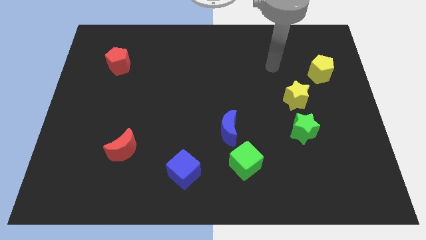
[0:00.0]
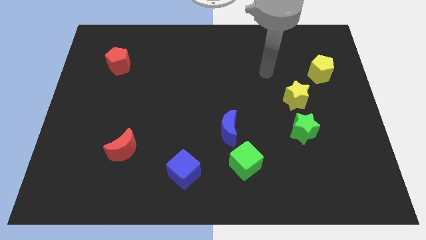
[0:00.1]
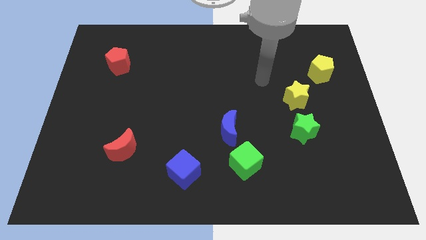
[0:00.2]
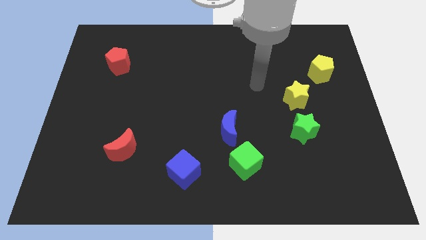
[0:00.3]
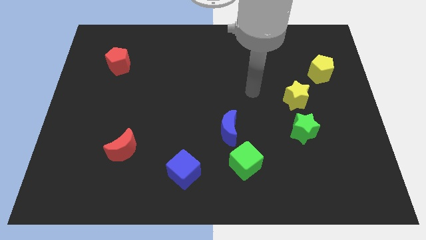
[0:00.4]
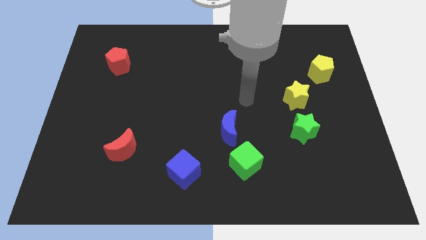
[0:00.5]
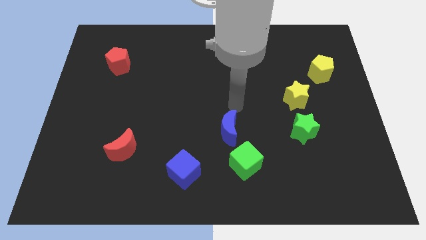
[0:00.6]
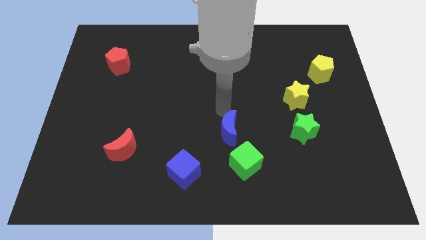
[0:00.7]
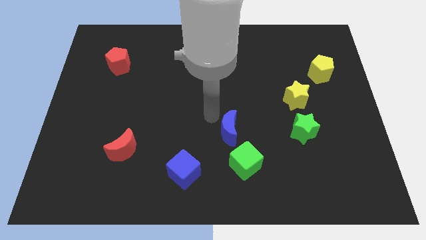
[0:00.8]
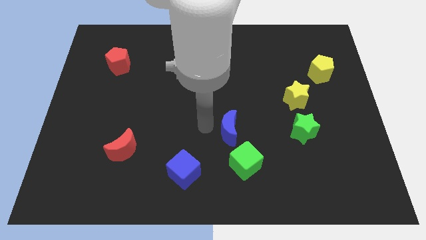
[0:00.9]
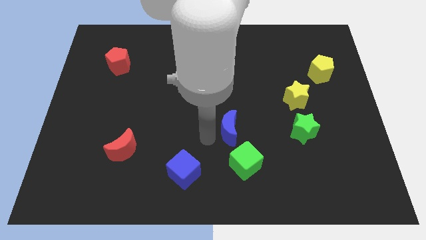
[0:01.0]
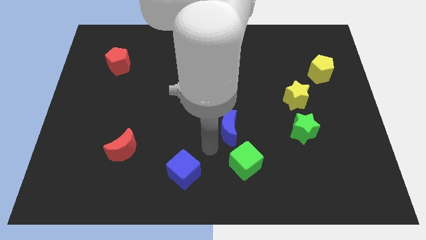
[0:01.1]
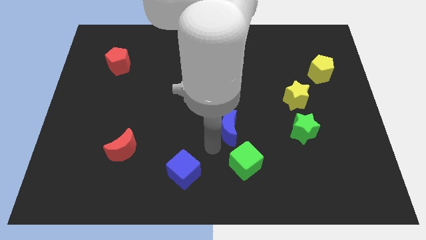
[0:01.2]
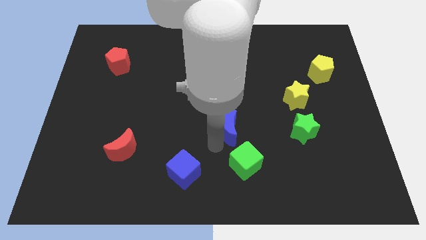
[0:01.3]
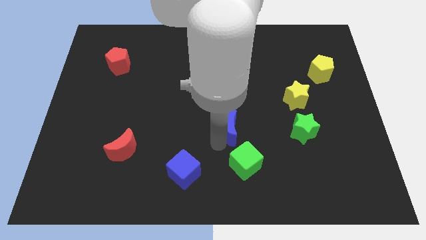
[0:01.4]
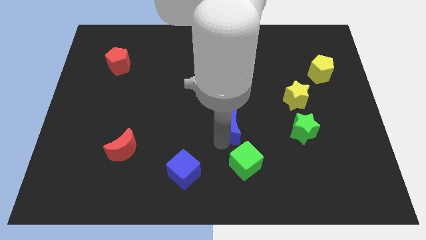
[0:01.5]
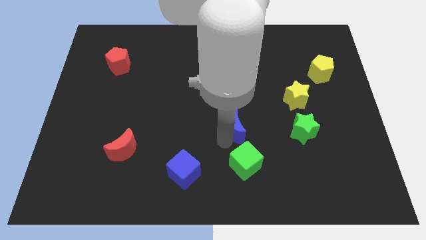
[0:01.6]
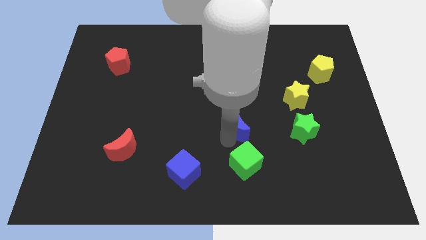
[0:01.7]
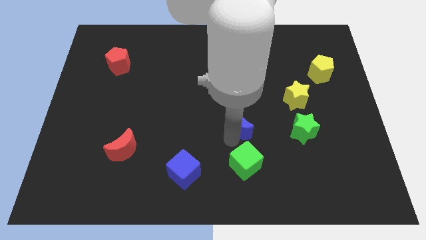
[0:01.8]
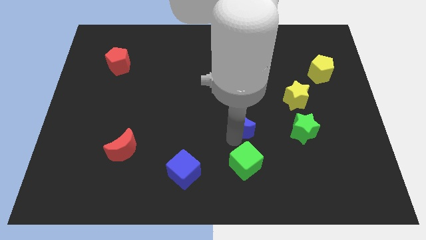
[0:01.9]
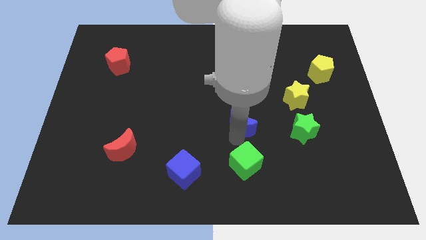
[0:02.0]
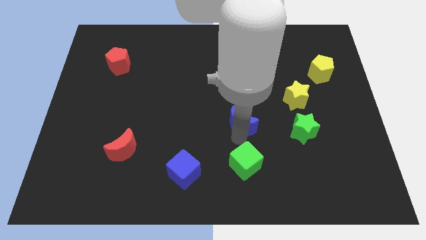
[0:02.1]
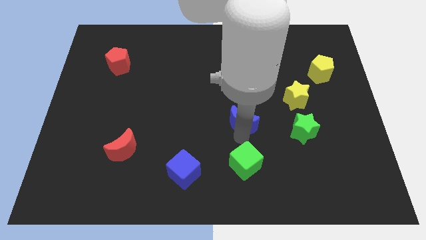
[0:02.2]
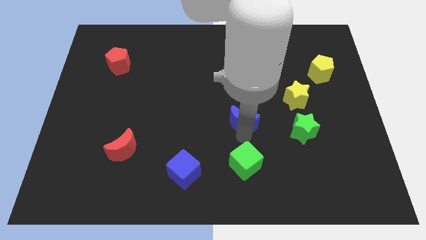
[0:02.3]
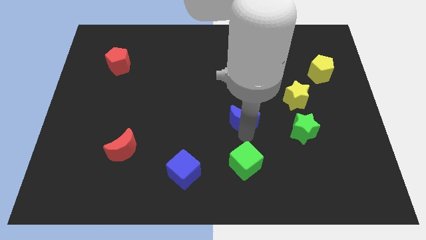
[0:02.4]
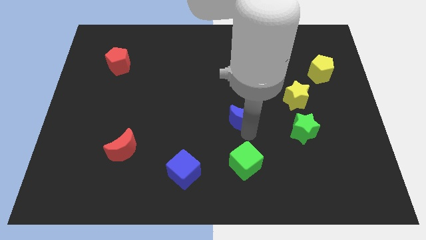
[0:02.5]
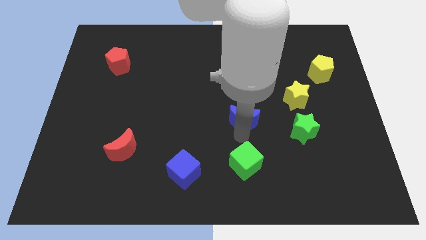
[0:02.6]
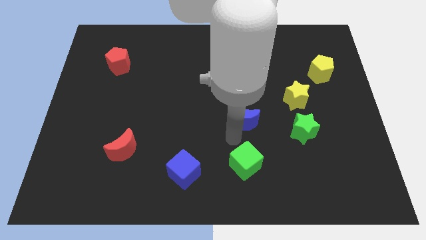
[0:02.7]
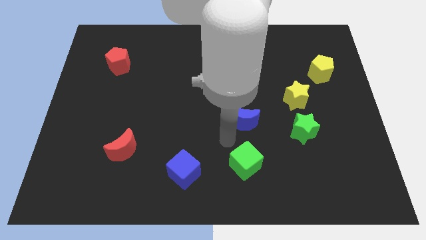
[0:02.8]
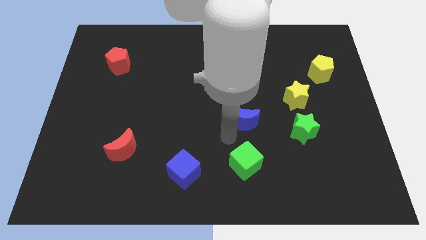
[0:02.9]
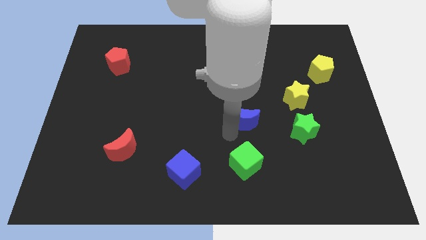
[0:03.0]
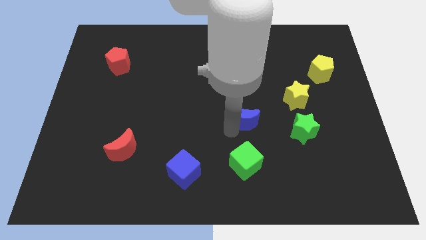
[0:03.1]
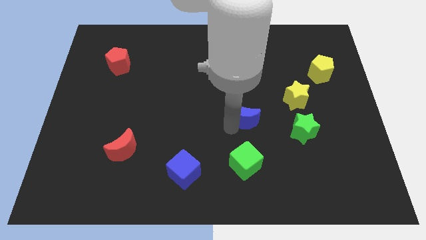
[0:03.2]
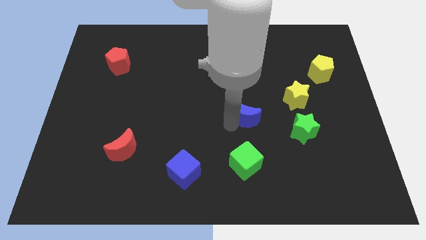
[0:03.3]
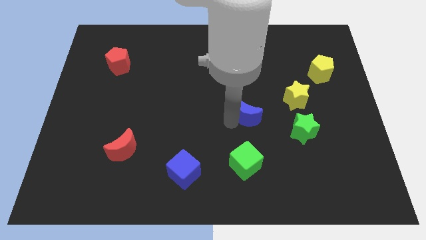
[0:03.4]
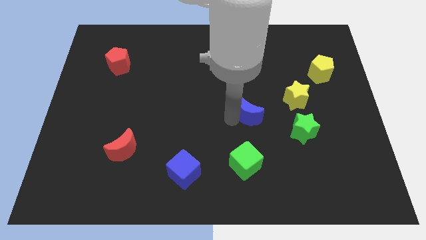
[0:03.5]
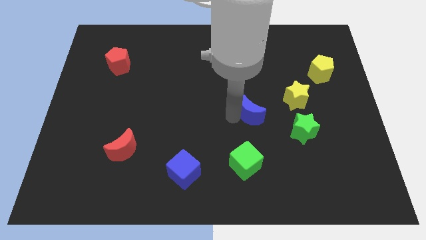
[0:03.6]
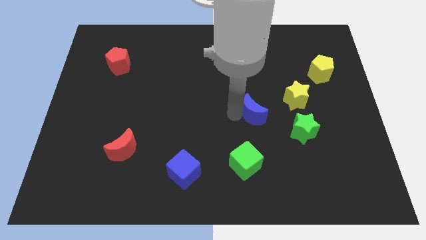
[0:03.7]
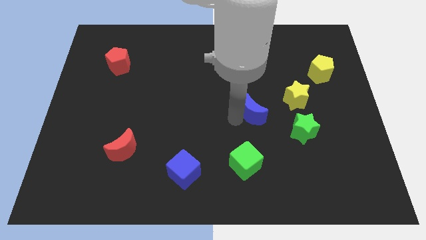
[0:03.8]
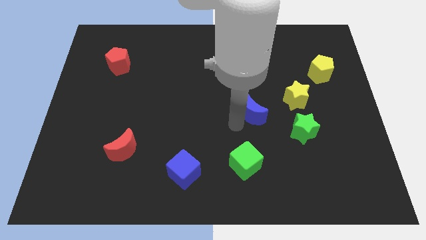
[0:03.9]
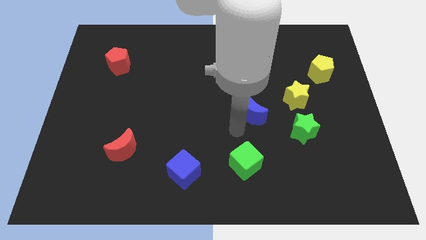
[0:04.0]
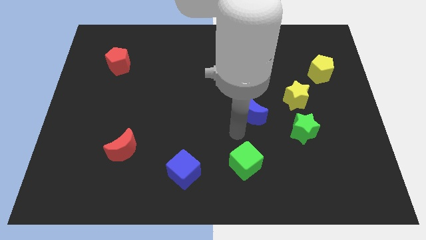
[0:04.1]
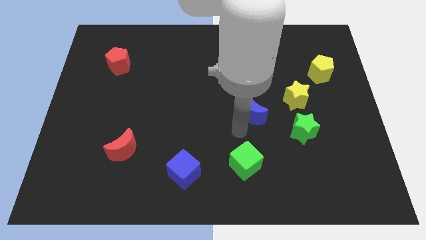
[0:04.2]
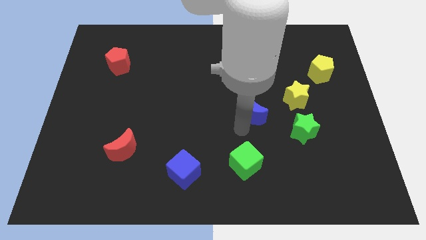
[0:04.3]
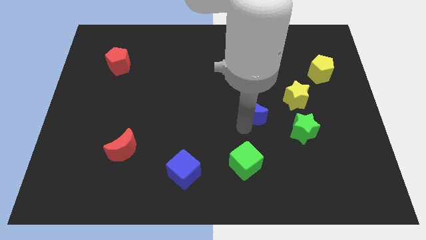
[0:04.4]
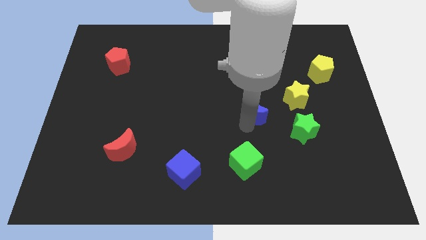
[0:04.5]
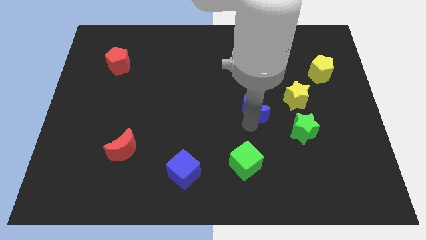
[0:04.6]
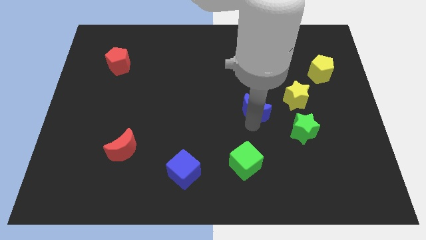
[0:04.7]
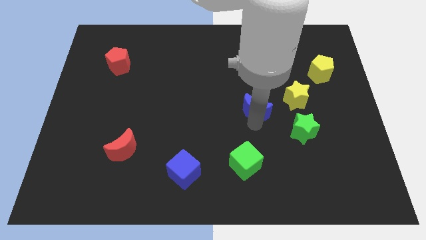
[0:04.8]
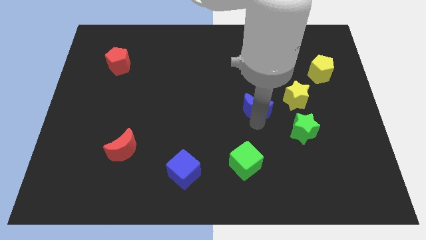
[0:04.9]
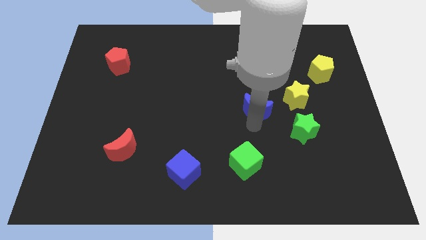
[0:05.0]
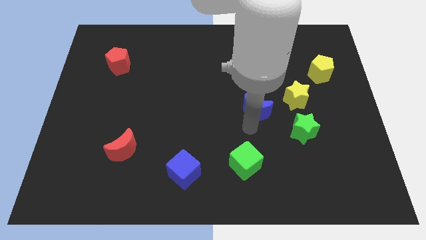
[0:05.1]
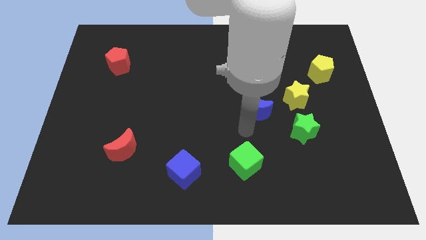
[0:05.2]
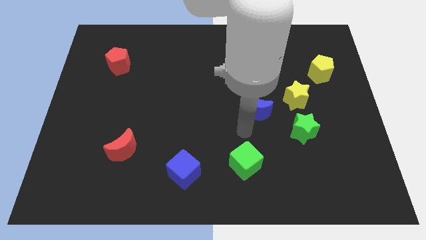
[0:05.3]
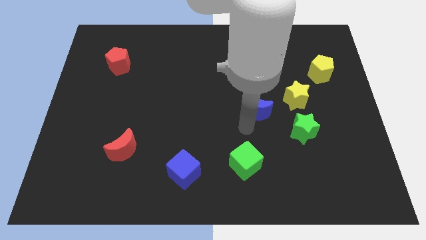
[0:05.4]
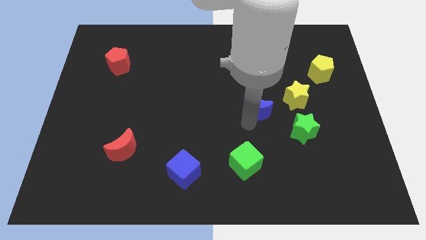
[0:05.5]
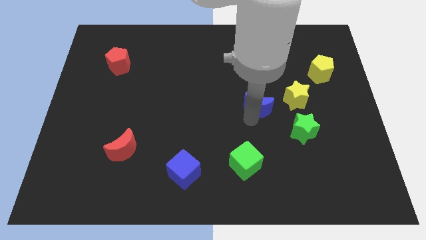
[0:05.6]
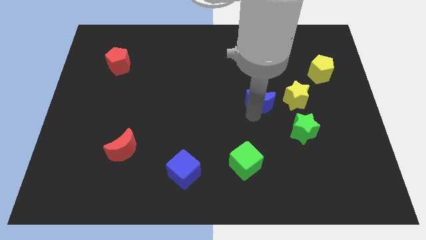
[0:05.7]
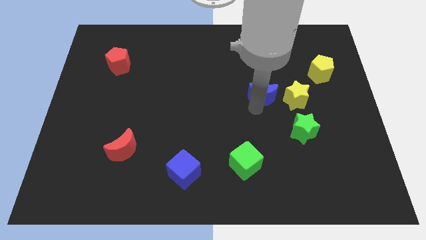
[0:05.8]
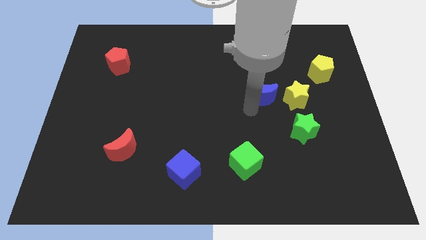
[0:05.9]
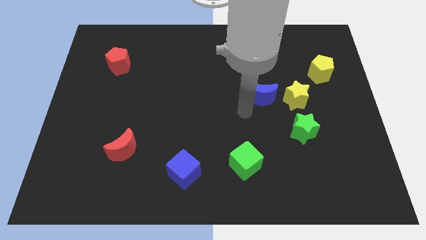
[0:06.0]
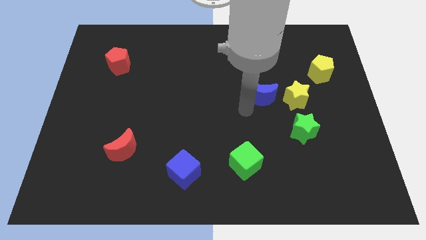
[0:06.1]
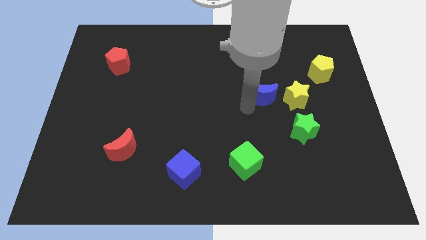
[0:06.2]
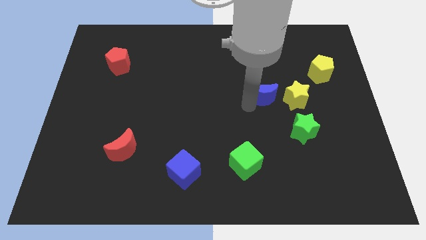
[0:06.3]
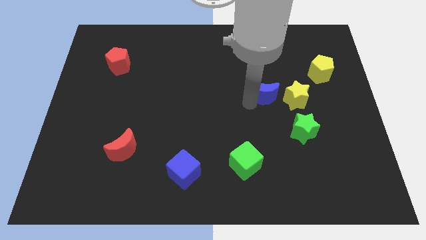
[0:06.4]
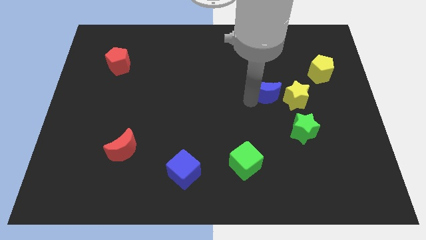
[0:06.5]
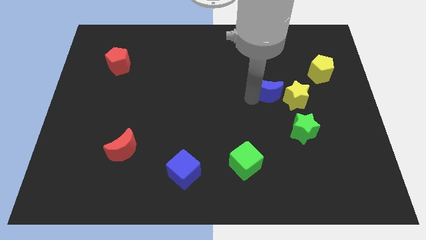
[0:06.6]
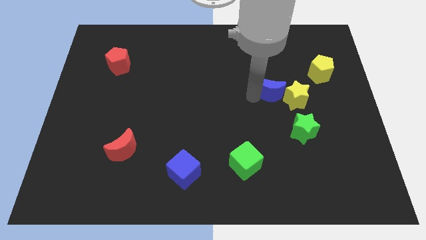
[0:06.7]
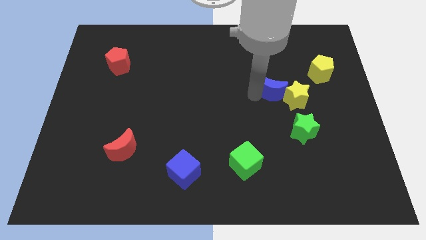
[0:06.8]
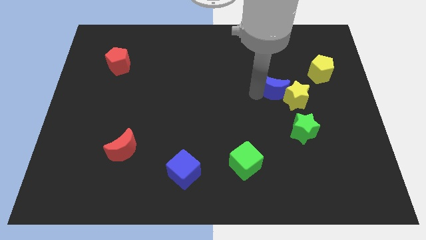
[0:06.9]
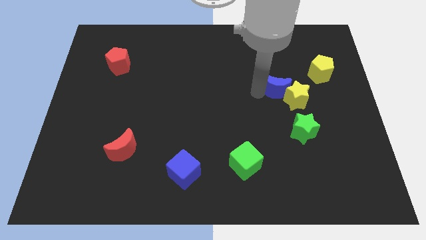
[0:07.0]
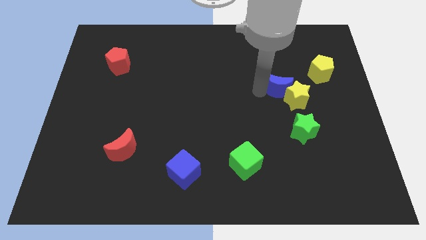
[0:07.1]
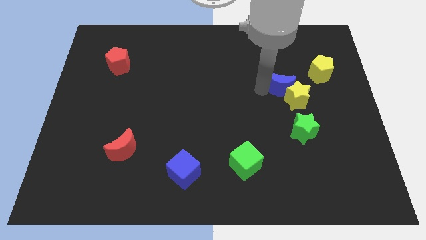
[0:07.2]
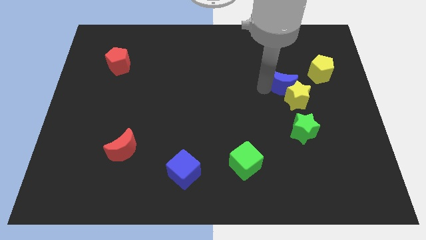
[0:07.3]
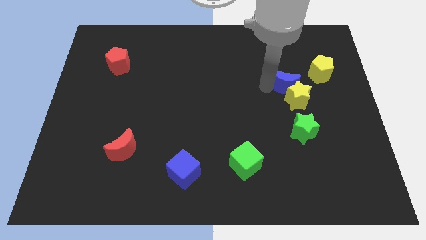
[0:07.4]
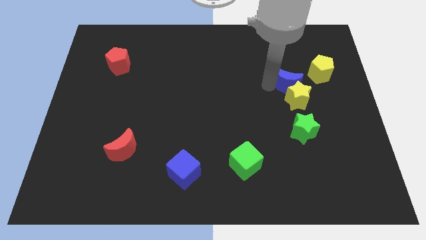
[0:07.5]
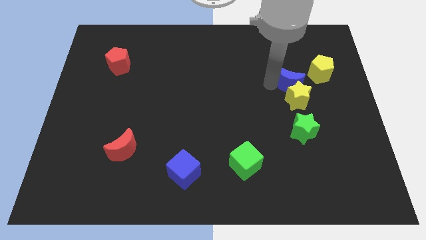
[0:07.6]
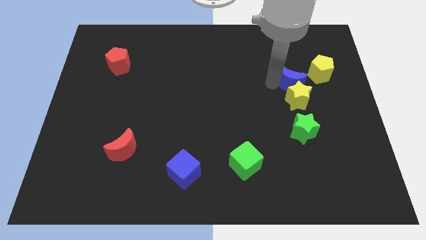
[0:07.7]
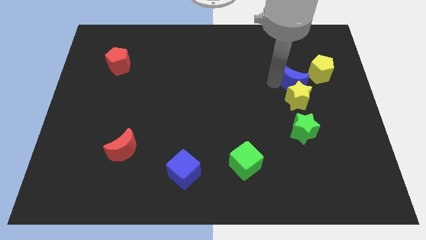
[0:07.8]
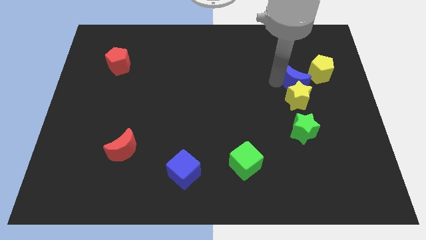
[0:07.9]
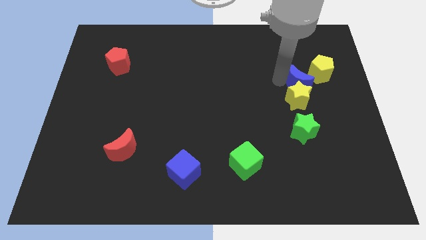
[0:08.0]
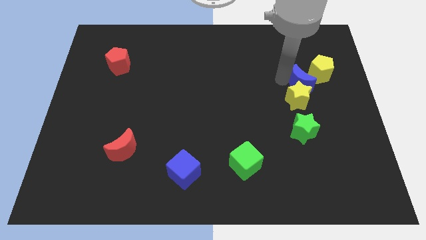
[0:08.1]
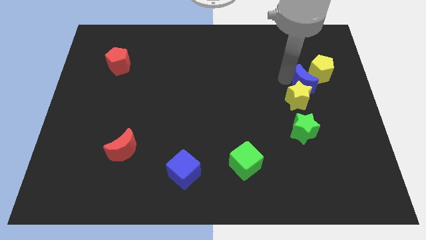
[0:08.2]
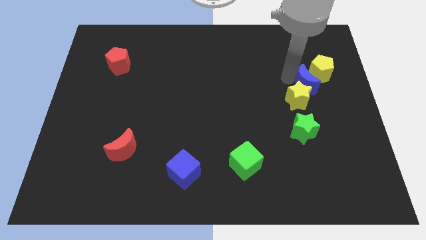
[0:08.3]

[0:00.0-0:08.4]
move the blue moon next to the yellow pentagon
